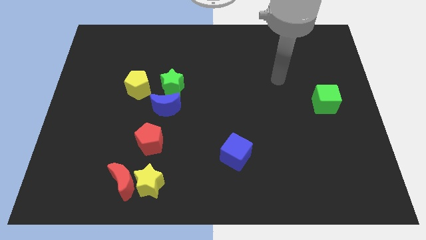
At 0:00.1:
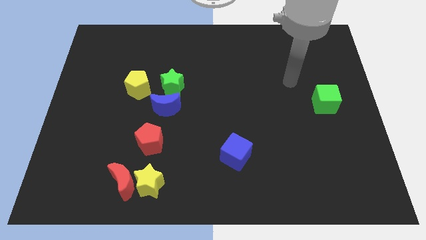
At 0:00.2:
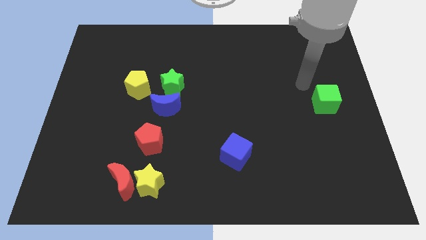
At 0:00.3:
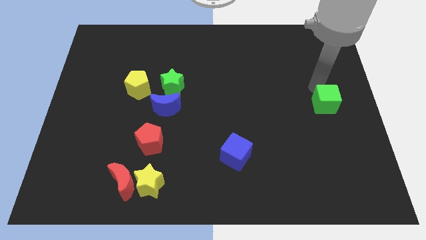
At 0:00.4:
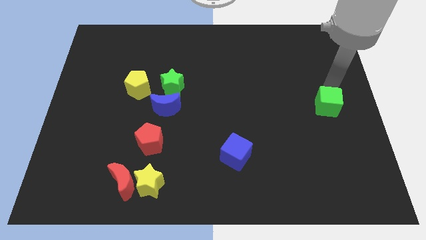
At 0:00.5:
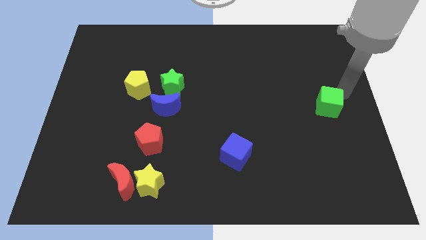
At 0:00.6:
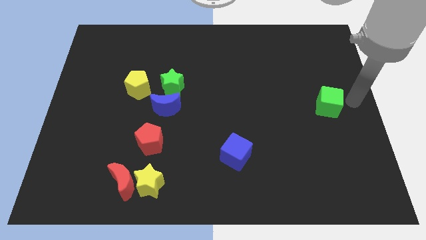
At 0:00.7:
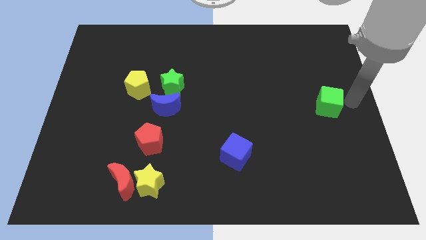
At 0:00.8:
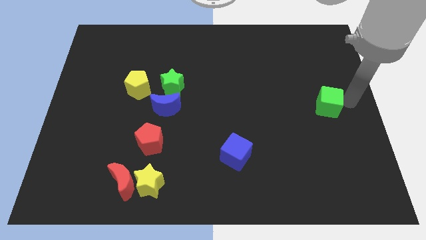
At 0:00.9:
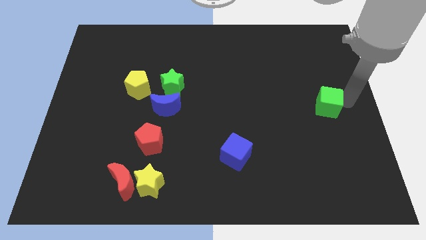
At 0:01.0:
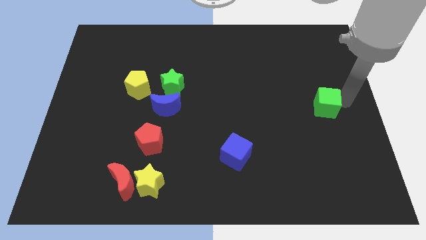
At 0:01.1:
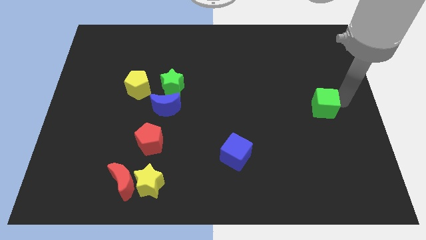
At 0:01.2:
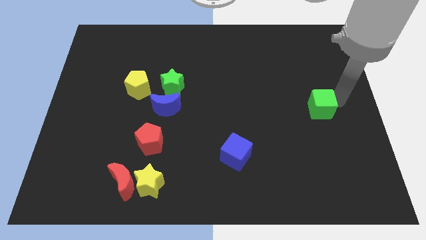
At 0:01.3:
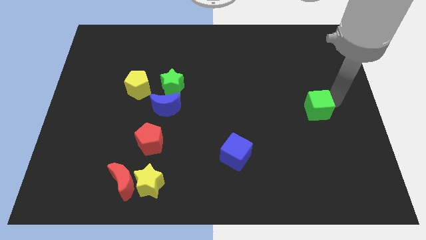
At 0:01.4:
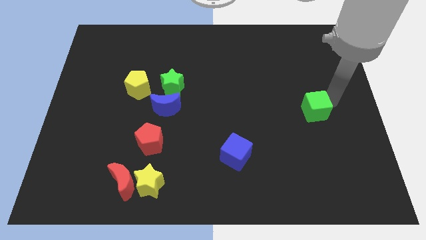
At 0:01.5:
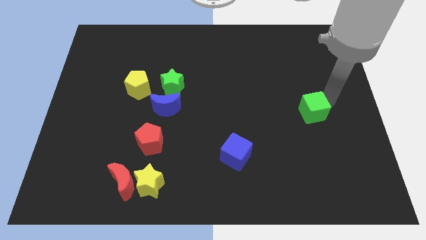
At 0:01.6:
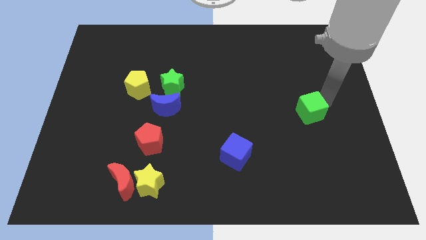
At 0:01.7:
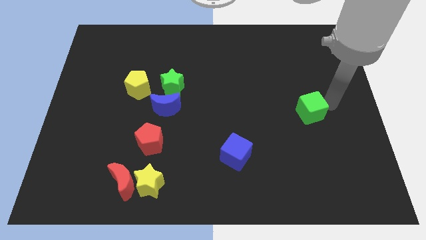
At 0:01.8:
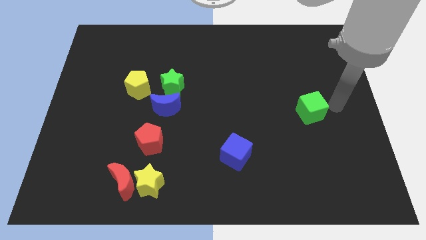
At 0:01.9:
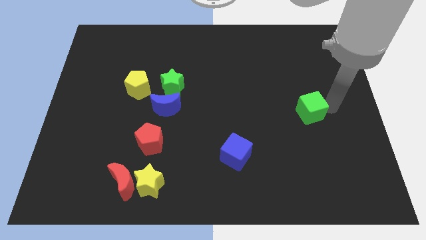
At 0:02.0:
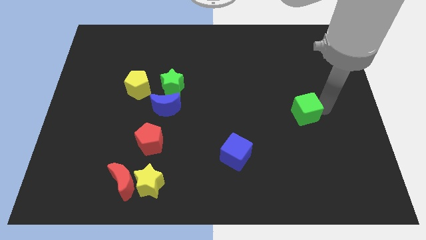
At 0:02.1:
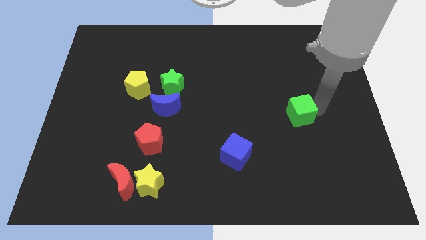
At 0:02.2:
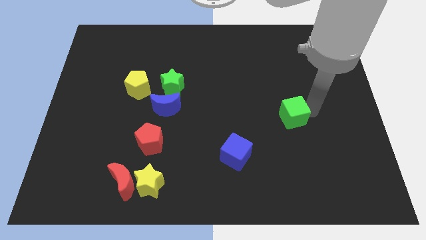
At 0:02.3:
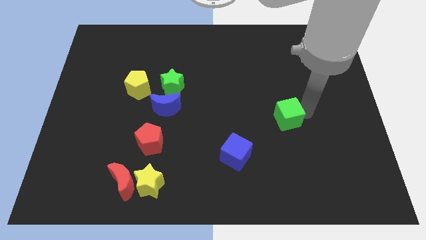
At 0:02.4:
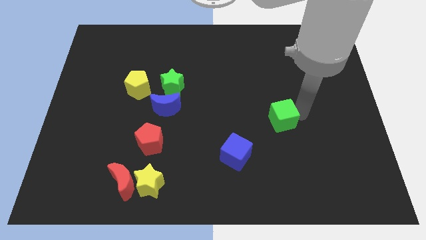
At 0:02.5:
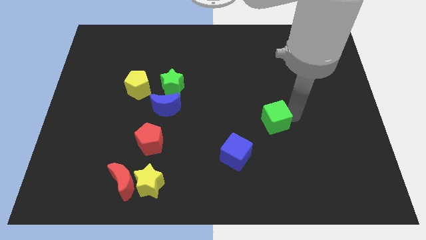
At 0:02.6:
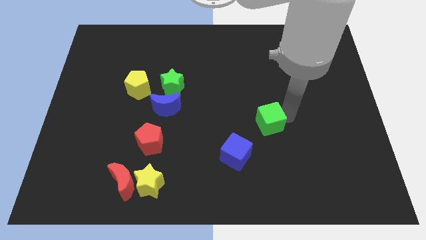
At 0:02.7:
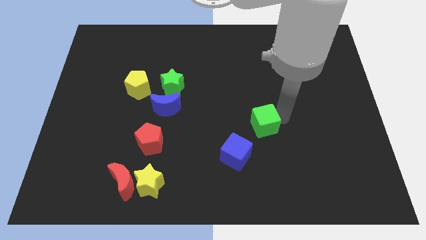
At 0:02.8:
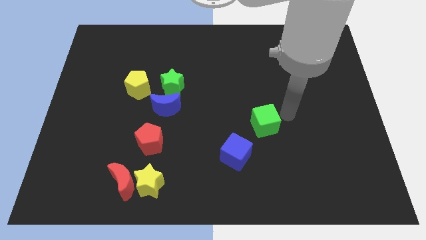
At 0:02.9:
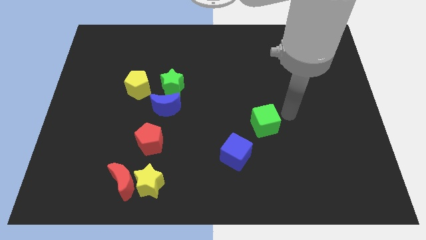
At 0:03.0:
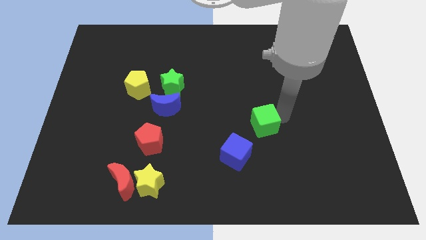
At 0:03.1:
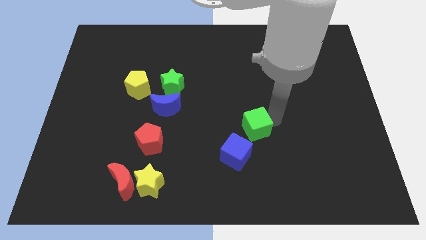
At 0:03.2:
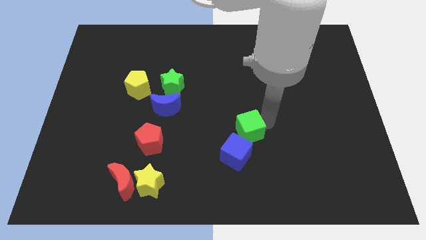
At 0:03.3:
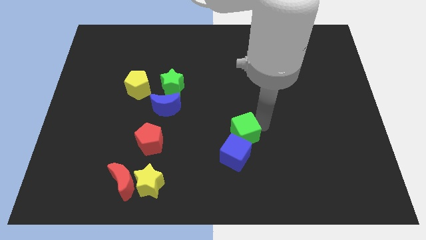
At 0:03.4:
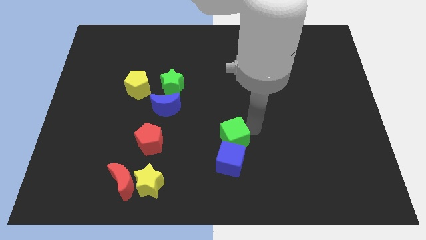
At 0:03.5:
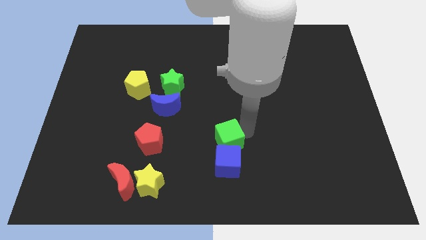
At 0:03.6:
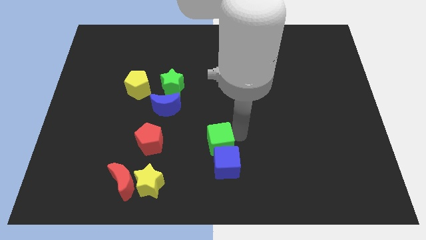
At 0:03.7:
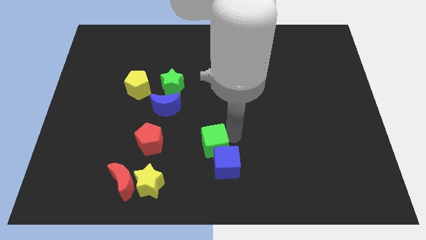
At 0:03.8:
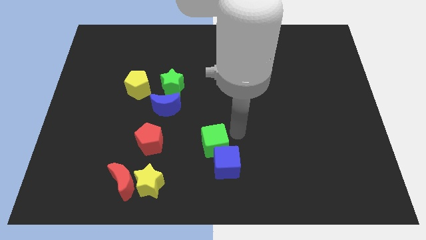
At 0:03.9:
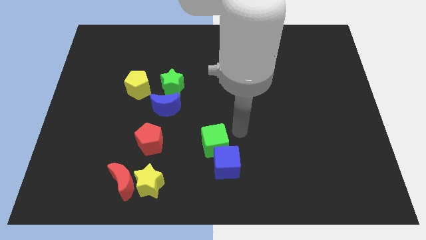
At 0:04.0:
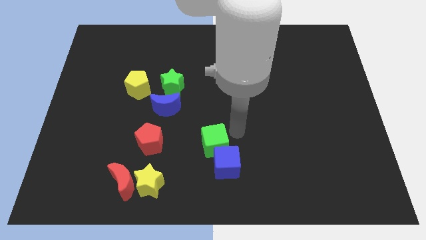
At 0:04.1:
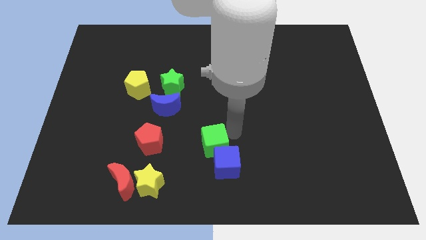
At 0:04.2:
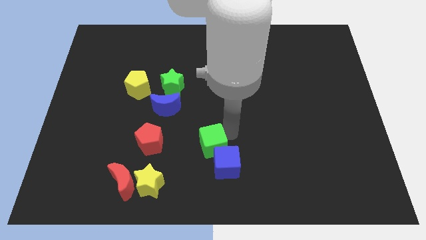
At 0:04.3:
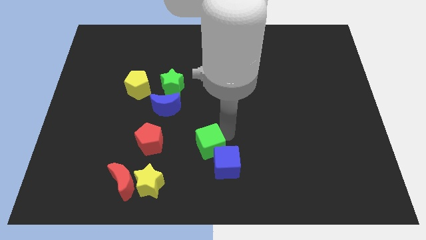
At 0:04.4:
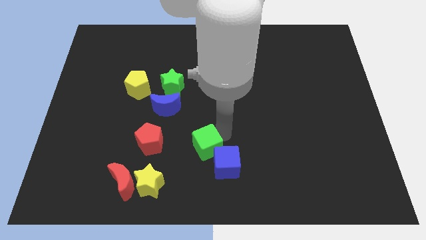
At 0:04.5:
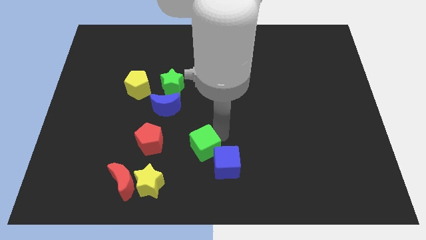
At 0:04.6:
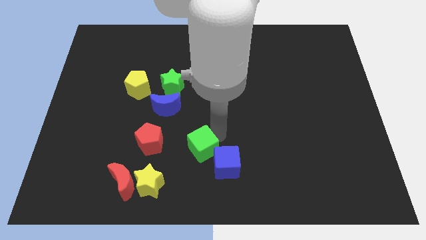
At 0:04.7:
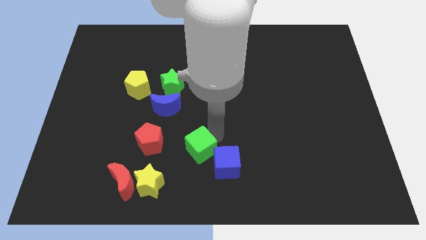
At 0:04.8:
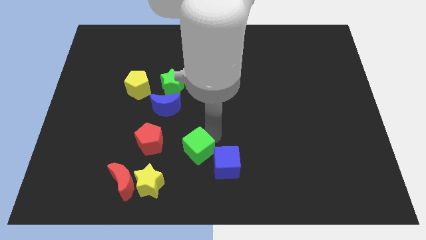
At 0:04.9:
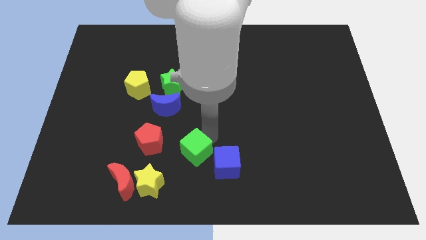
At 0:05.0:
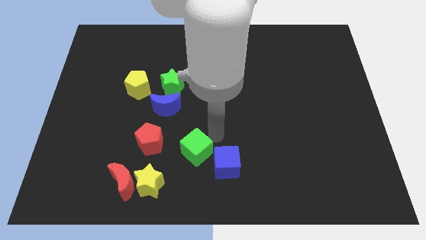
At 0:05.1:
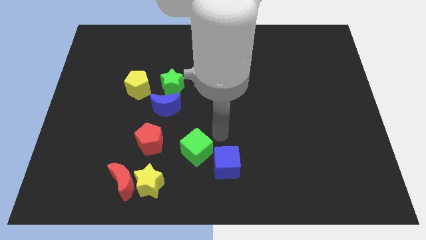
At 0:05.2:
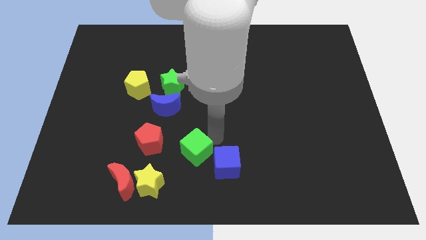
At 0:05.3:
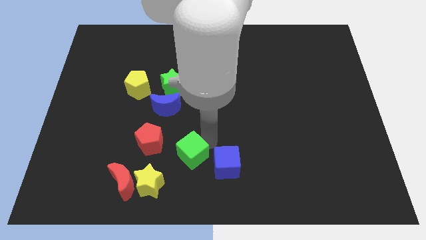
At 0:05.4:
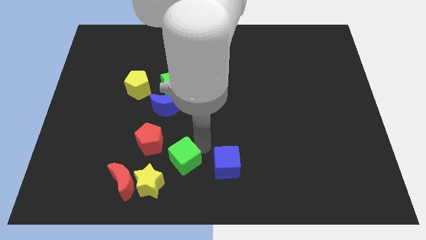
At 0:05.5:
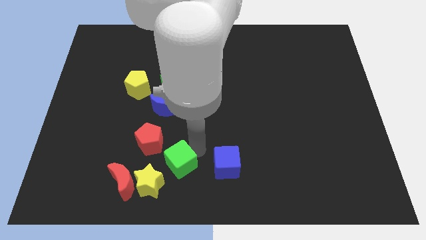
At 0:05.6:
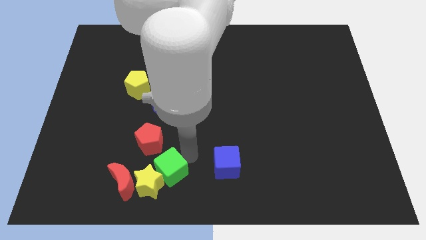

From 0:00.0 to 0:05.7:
push the green cube next to the yellow star

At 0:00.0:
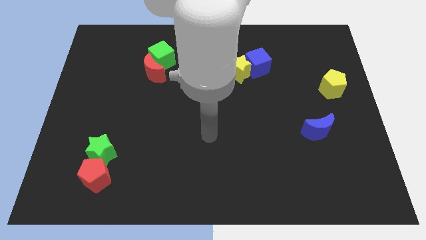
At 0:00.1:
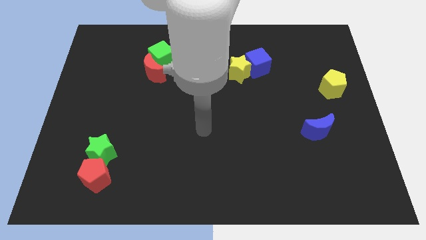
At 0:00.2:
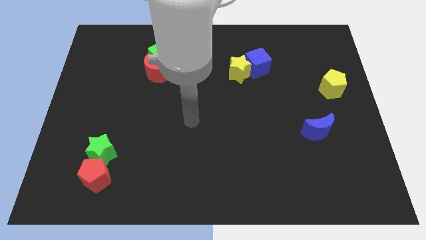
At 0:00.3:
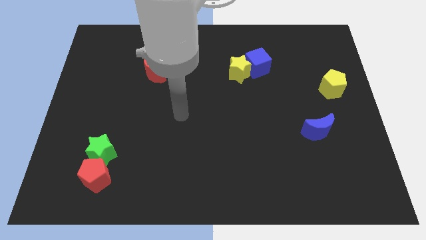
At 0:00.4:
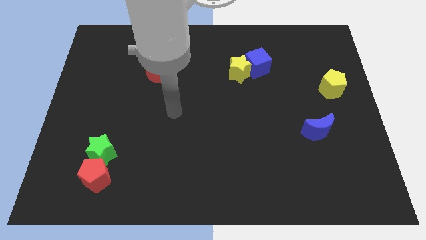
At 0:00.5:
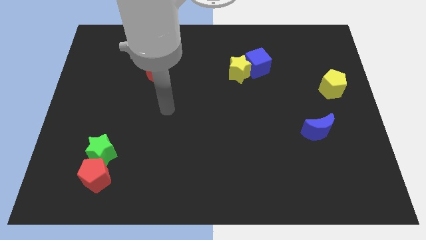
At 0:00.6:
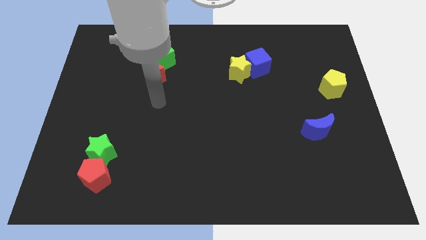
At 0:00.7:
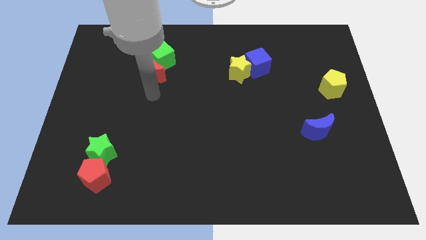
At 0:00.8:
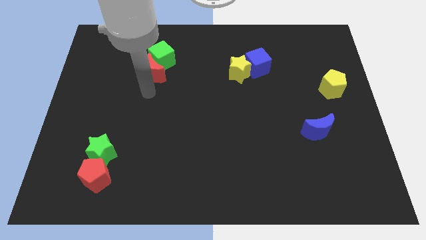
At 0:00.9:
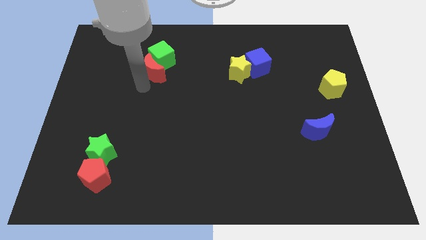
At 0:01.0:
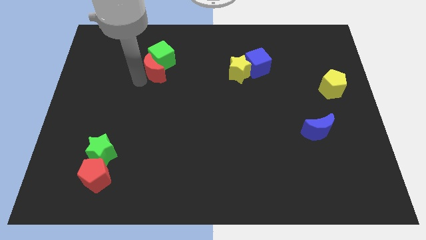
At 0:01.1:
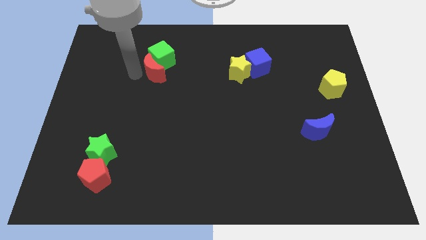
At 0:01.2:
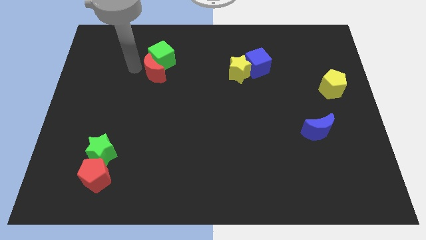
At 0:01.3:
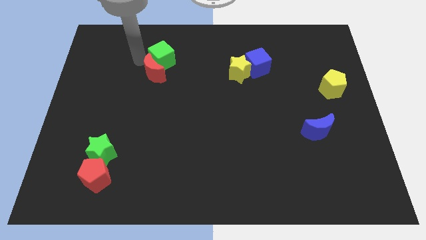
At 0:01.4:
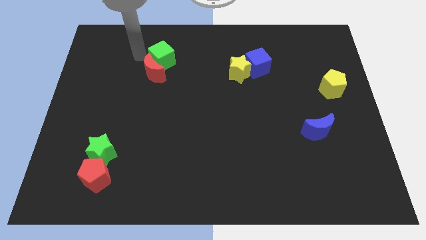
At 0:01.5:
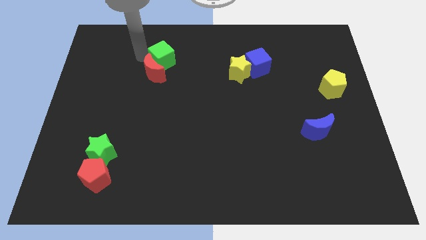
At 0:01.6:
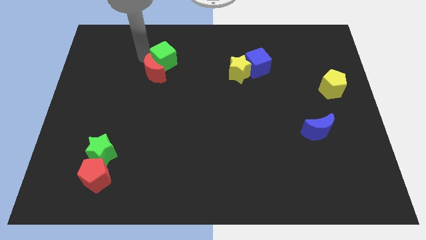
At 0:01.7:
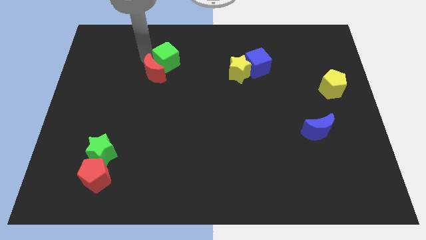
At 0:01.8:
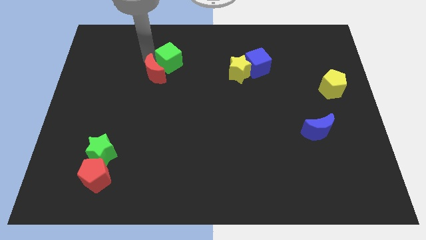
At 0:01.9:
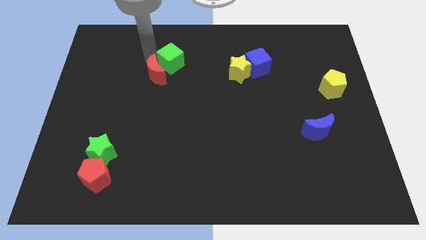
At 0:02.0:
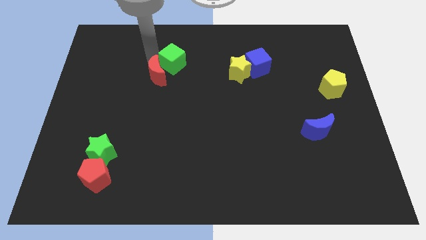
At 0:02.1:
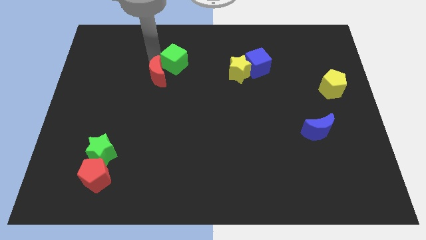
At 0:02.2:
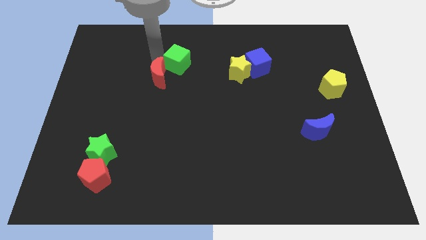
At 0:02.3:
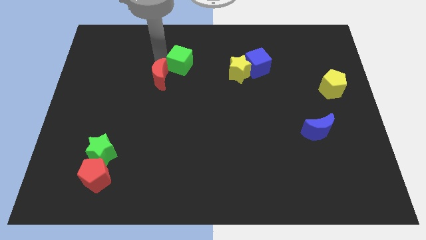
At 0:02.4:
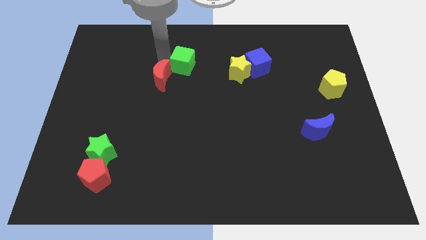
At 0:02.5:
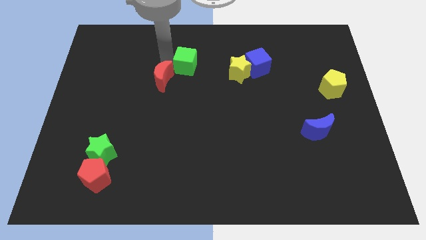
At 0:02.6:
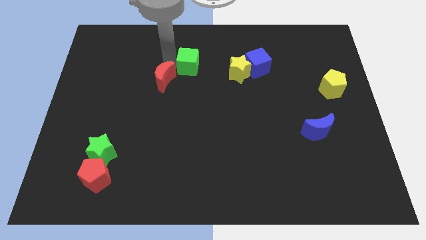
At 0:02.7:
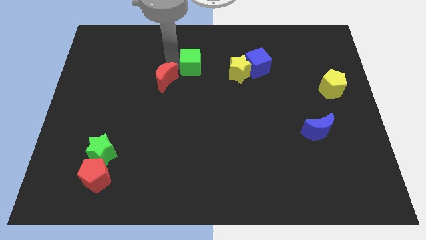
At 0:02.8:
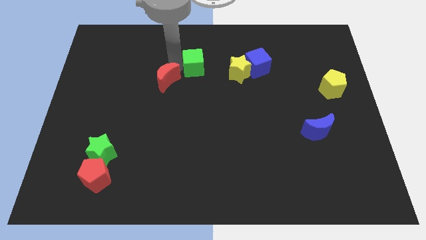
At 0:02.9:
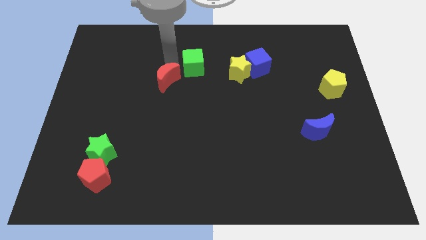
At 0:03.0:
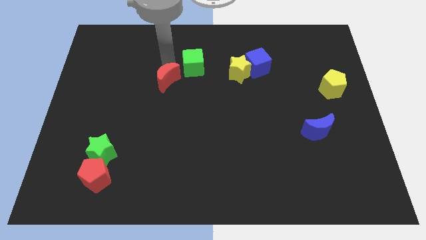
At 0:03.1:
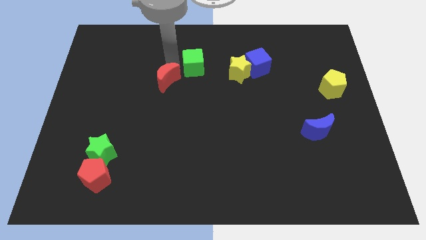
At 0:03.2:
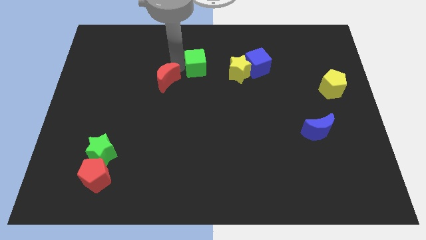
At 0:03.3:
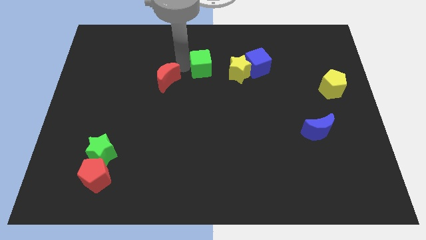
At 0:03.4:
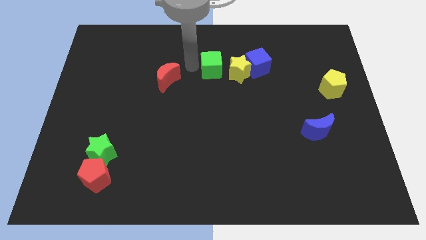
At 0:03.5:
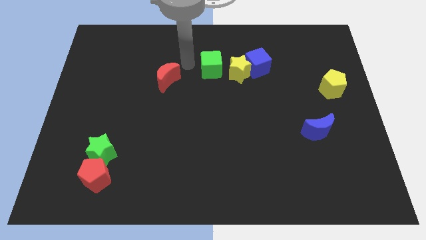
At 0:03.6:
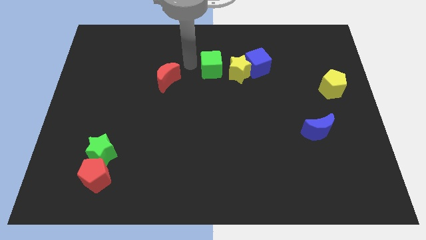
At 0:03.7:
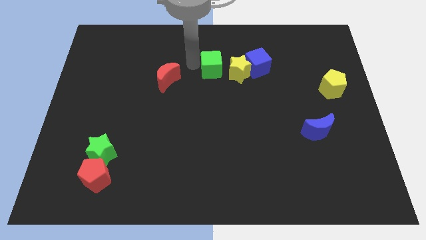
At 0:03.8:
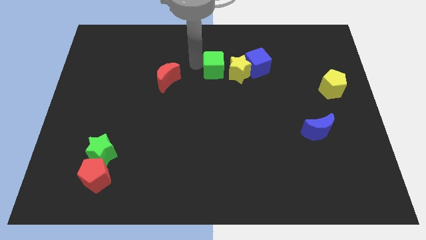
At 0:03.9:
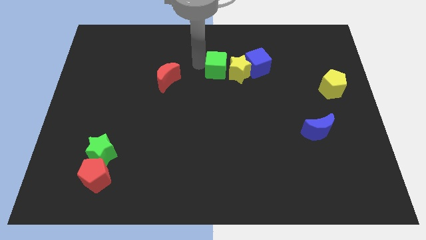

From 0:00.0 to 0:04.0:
put the green cube to the yellow star
